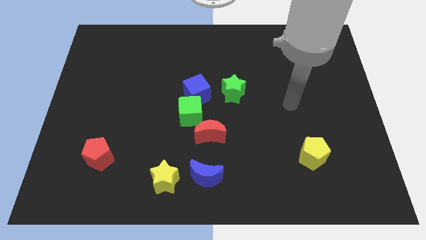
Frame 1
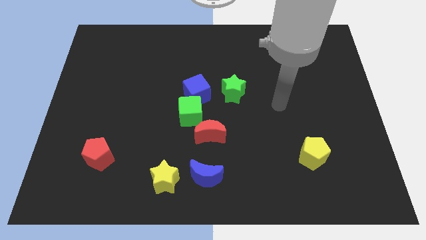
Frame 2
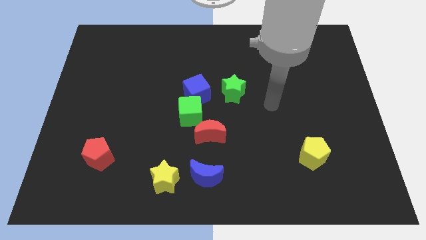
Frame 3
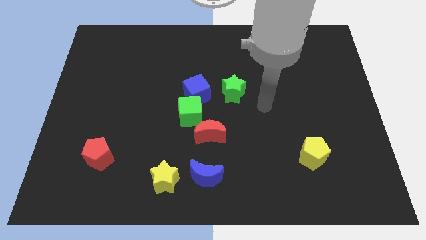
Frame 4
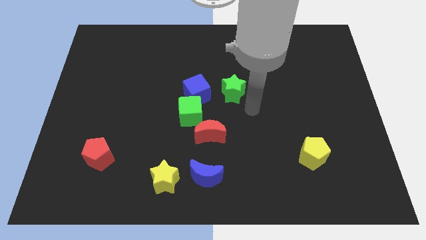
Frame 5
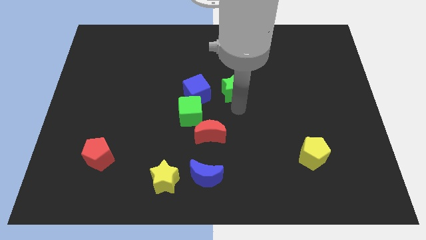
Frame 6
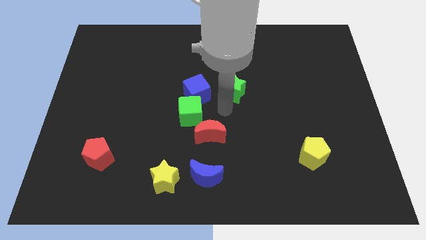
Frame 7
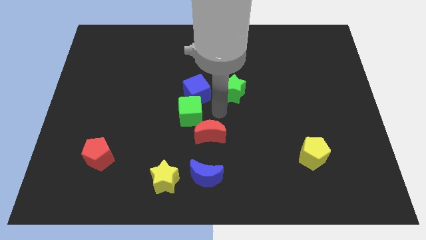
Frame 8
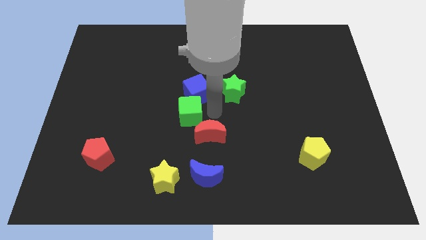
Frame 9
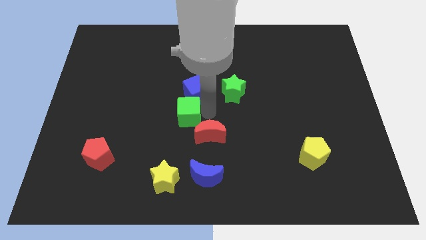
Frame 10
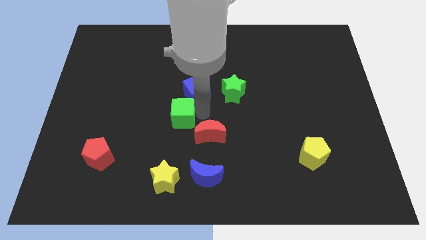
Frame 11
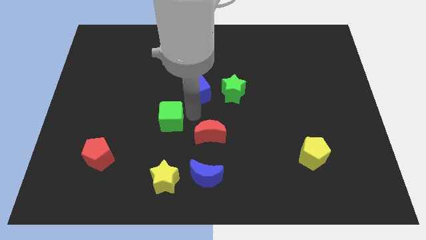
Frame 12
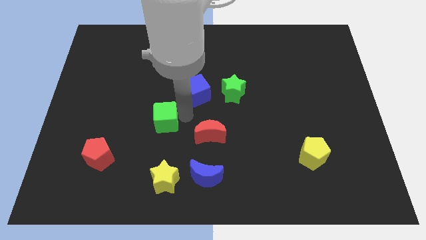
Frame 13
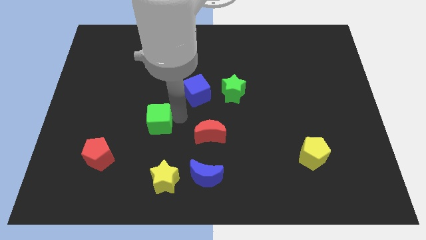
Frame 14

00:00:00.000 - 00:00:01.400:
pull the green cube apart from the blue cube and red moon

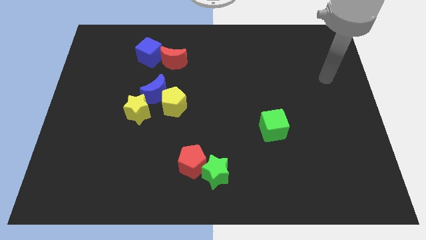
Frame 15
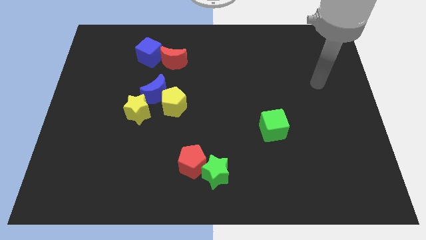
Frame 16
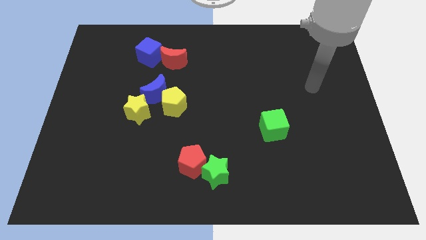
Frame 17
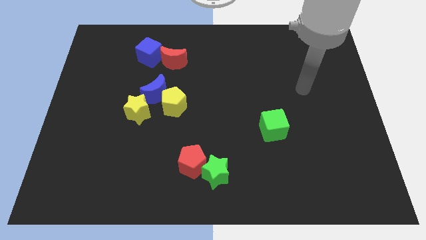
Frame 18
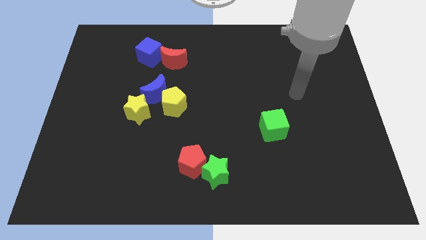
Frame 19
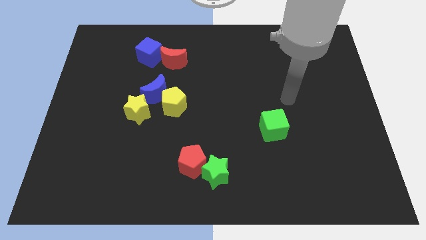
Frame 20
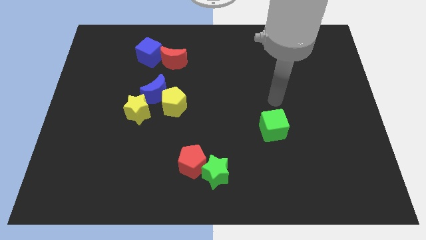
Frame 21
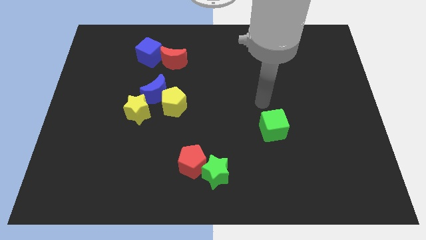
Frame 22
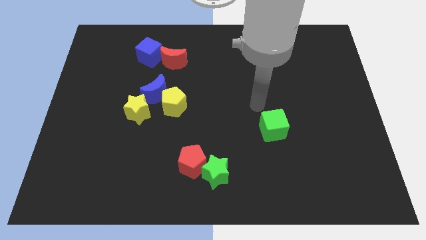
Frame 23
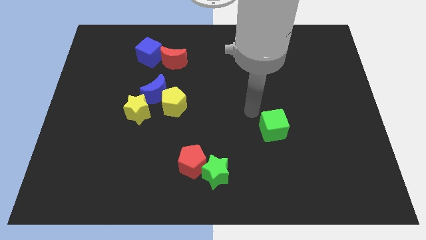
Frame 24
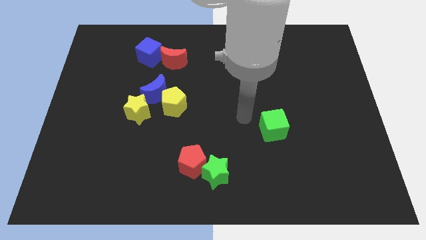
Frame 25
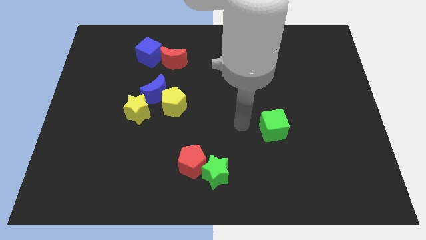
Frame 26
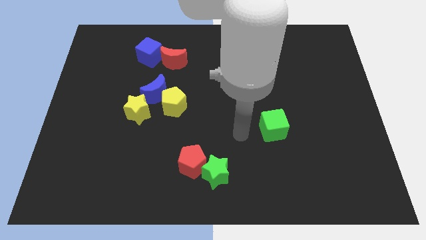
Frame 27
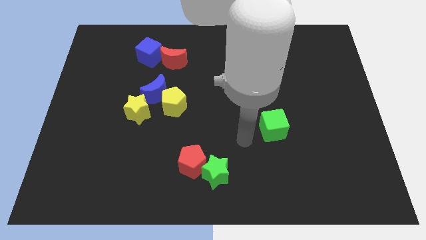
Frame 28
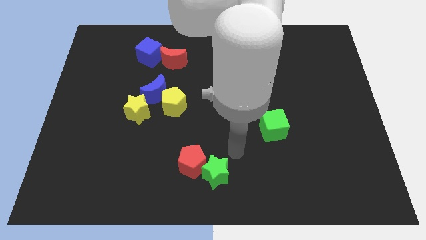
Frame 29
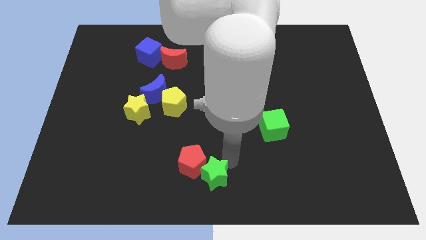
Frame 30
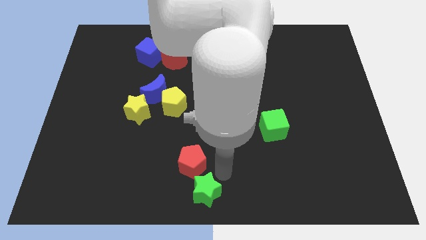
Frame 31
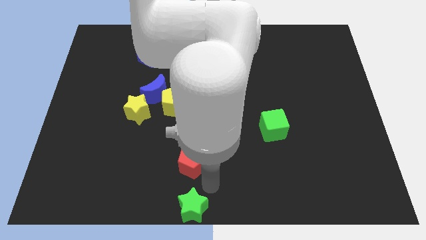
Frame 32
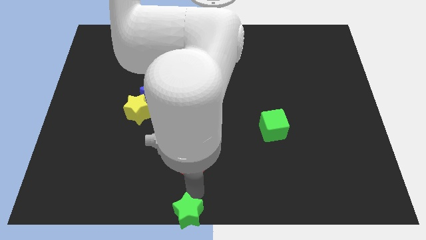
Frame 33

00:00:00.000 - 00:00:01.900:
move the red pentagon away from the green star

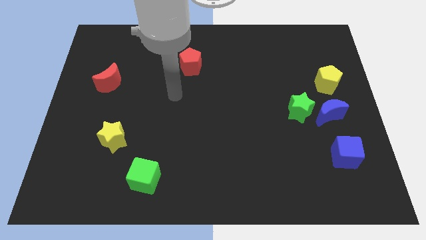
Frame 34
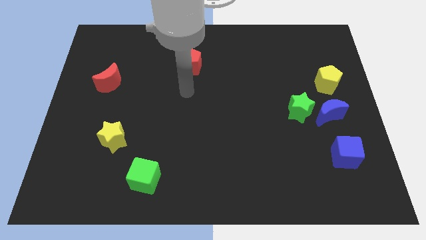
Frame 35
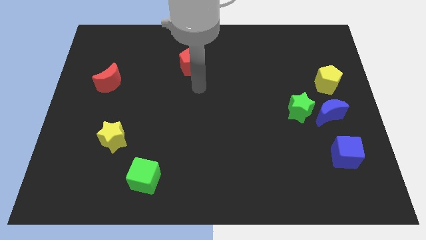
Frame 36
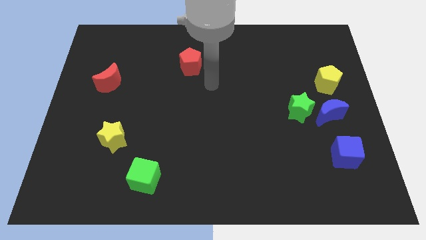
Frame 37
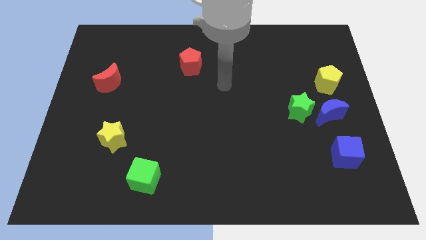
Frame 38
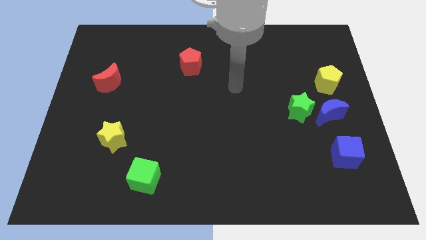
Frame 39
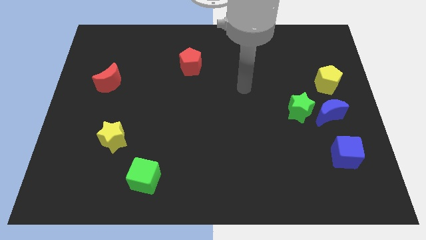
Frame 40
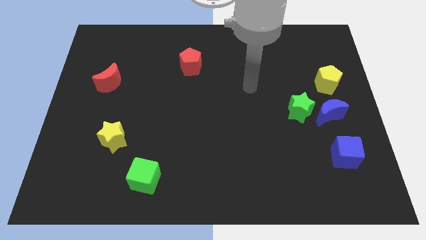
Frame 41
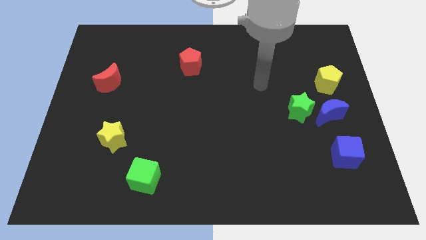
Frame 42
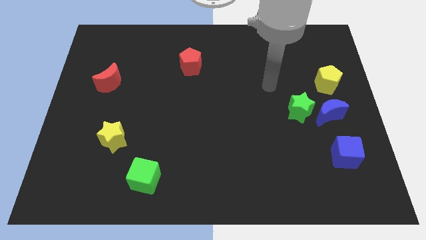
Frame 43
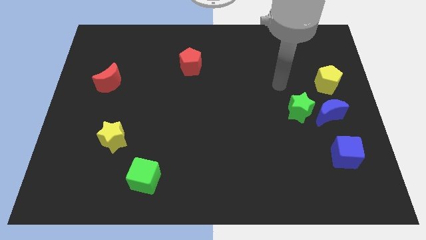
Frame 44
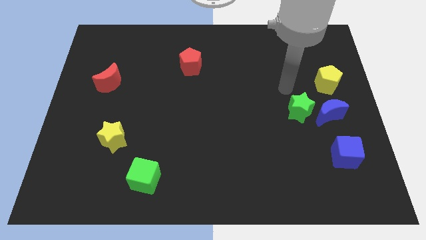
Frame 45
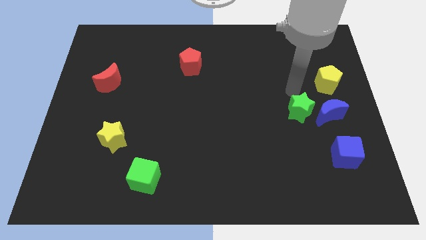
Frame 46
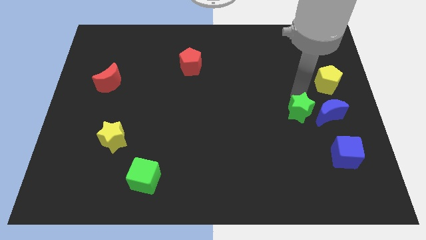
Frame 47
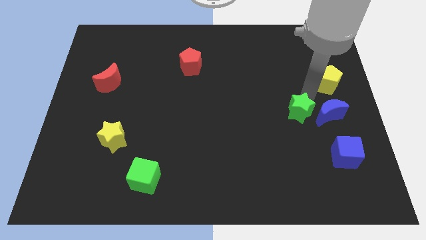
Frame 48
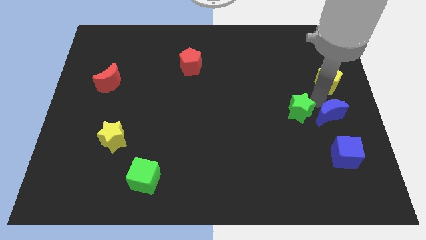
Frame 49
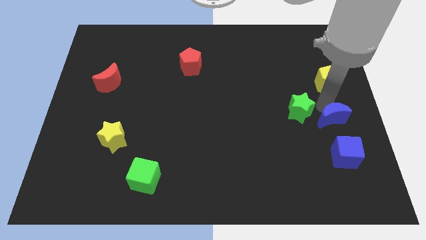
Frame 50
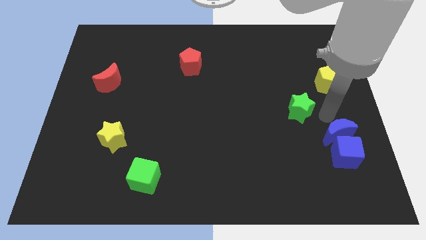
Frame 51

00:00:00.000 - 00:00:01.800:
pull the green star apart from the blue moon

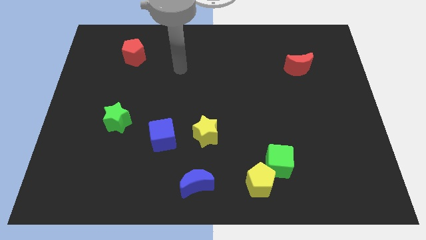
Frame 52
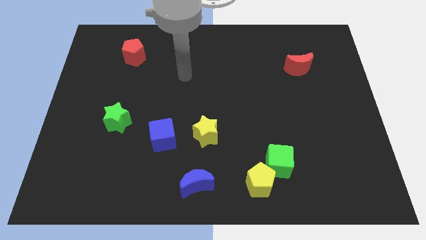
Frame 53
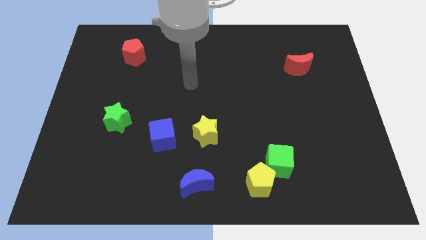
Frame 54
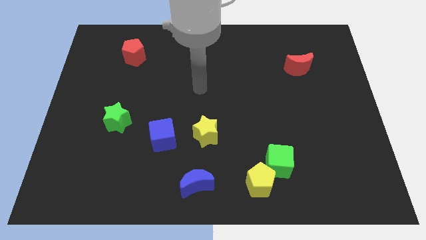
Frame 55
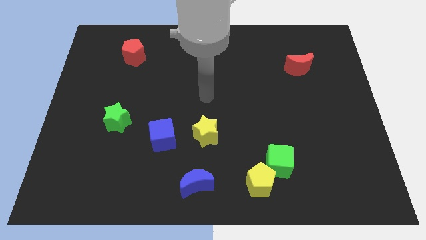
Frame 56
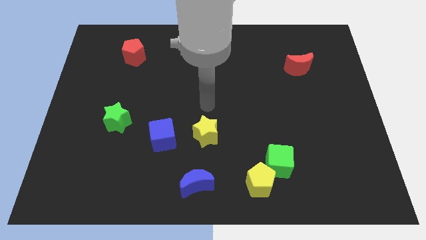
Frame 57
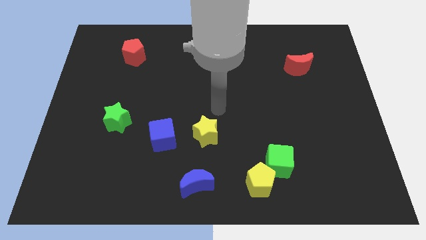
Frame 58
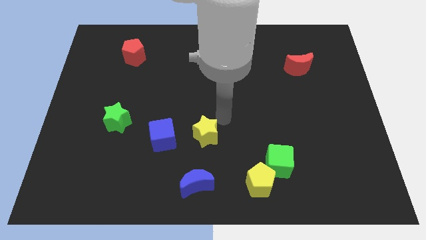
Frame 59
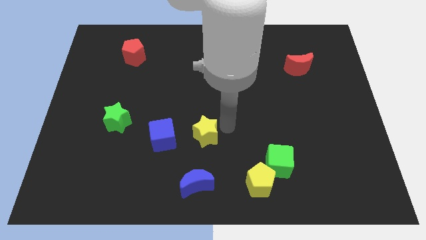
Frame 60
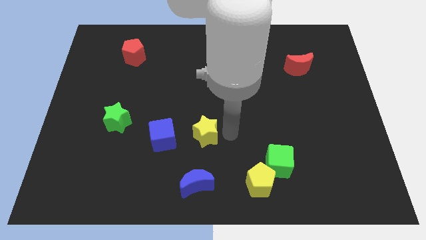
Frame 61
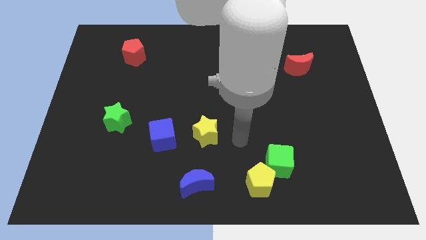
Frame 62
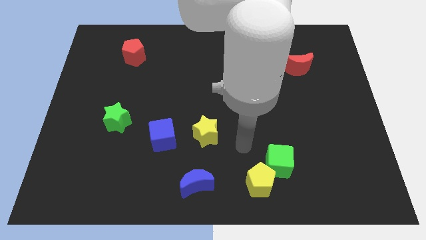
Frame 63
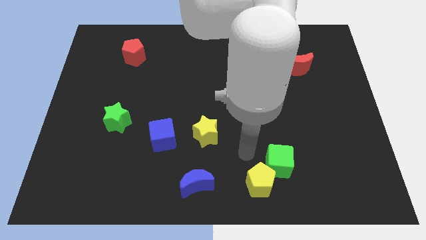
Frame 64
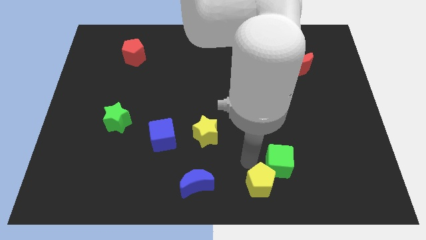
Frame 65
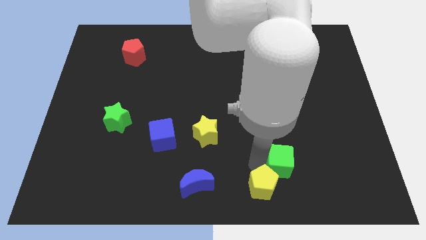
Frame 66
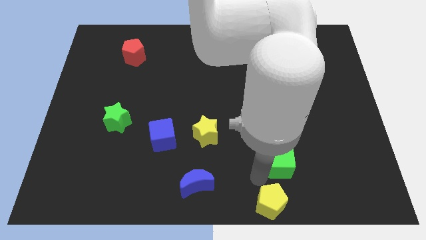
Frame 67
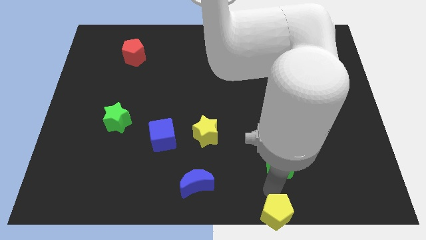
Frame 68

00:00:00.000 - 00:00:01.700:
pull the green cube apart from the yellow pentagon

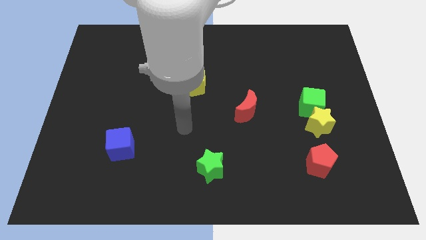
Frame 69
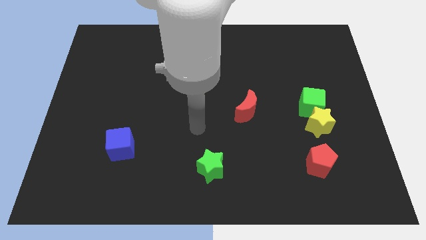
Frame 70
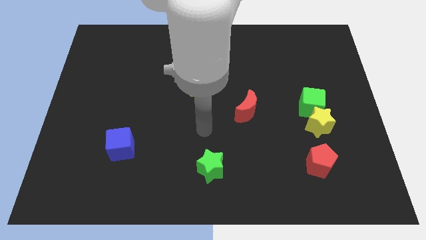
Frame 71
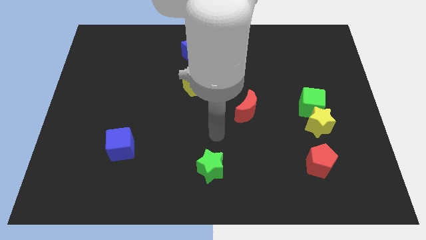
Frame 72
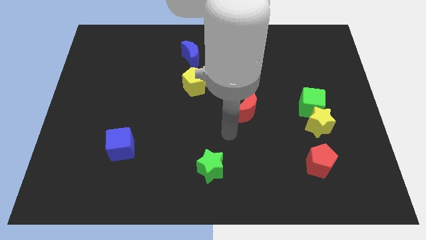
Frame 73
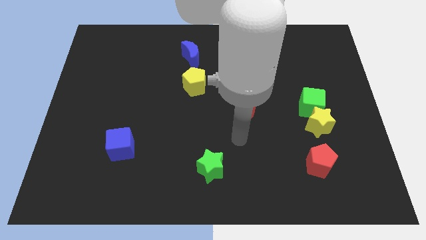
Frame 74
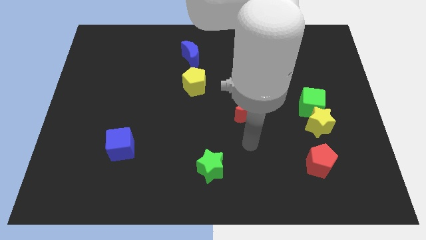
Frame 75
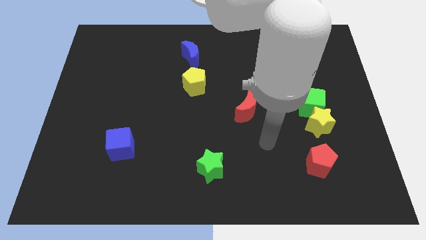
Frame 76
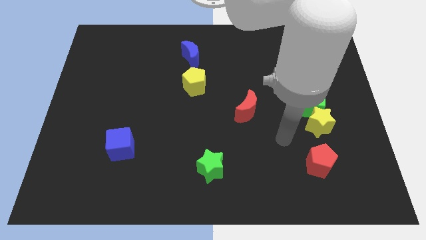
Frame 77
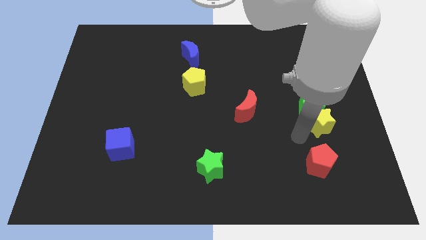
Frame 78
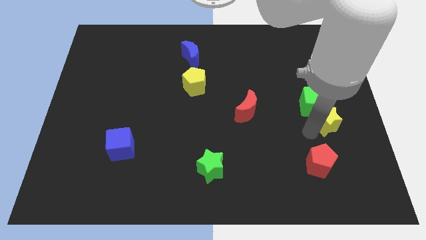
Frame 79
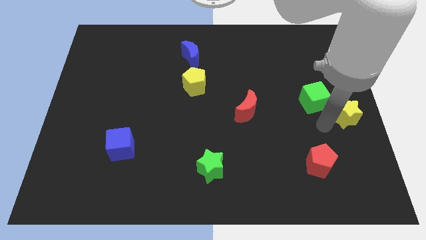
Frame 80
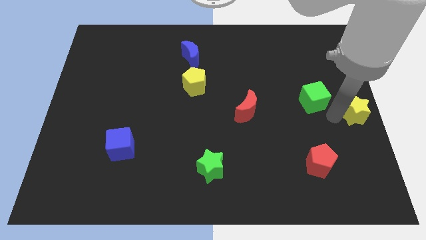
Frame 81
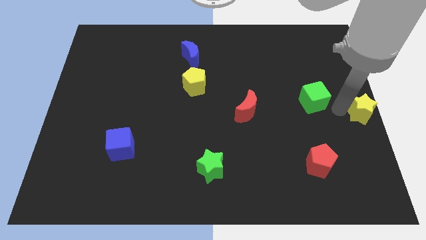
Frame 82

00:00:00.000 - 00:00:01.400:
separate the green cube from the yellow star

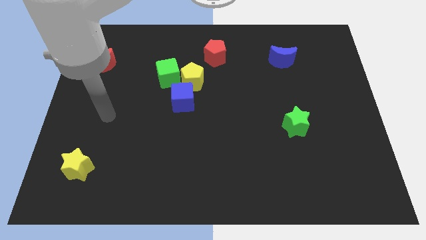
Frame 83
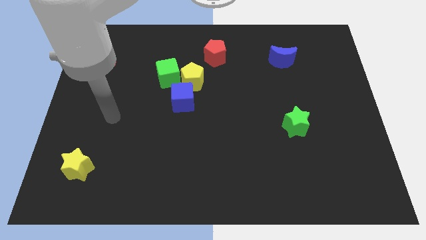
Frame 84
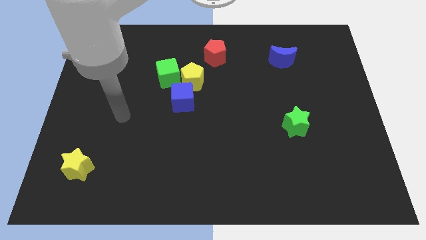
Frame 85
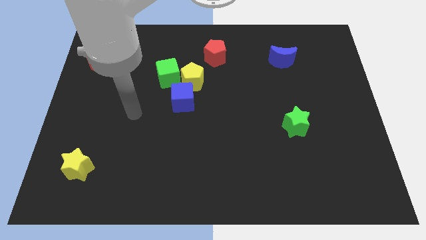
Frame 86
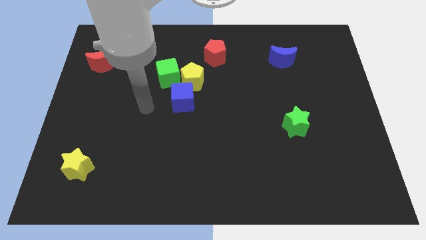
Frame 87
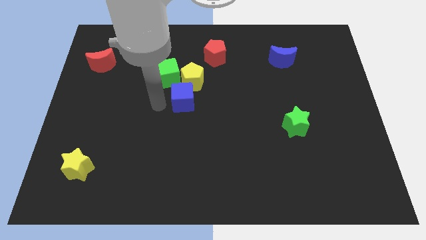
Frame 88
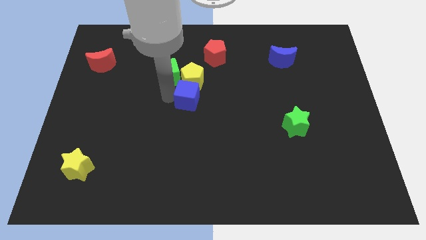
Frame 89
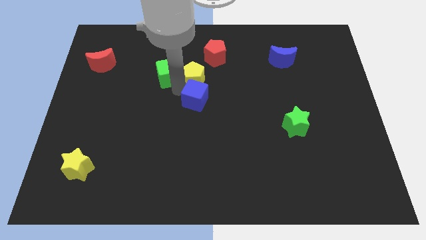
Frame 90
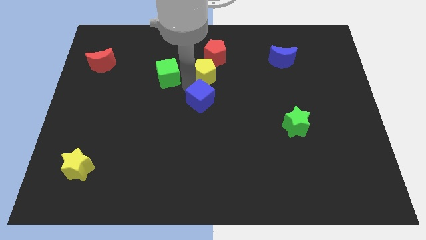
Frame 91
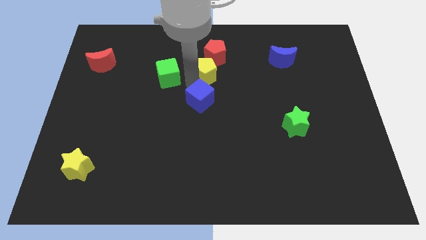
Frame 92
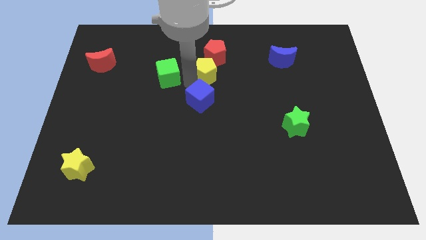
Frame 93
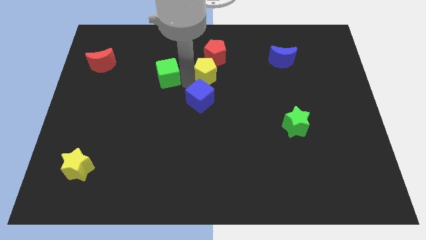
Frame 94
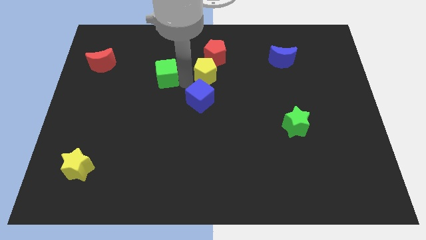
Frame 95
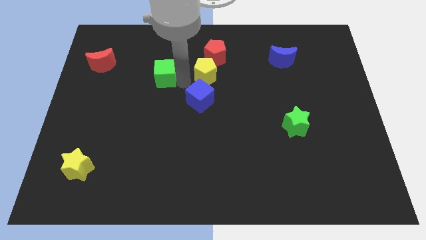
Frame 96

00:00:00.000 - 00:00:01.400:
move the green cube away from the yellow pentagon and blue cube
